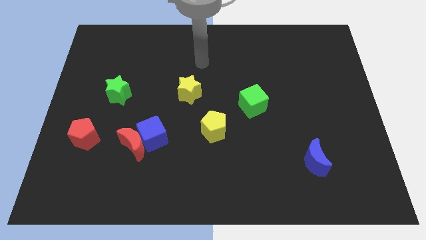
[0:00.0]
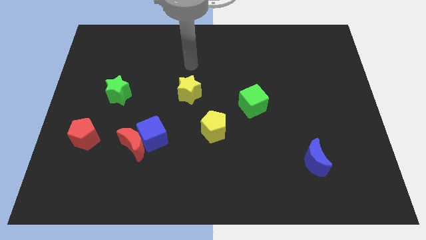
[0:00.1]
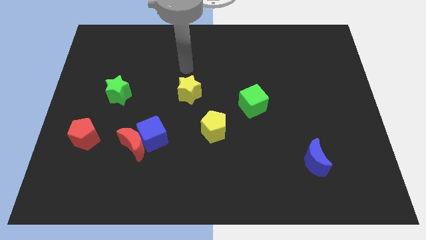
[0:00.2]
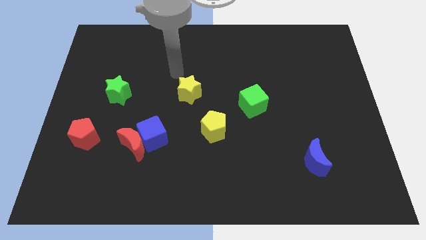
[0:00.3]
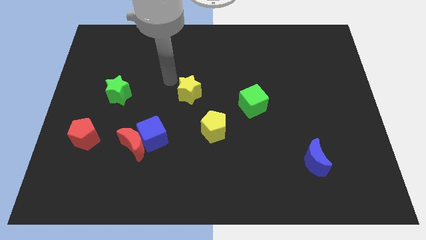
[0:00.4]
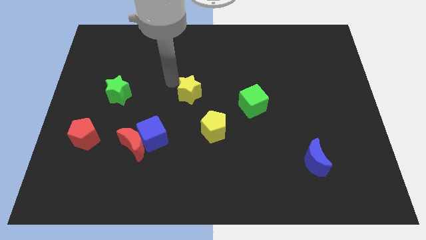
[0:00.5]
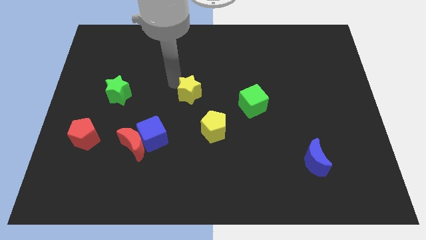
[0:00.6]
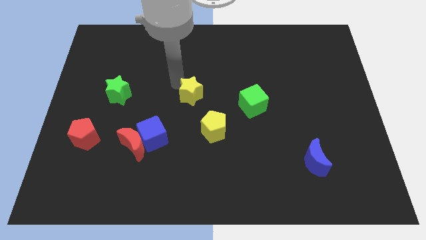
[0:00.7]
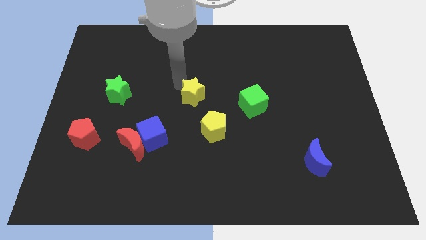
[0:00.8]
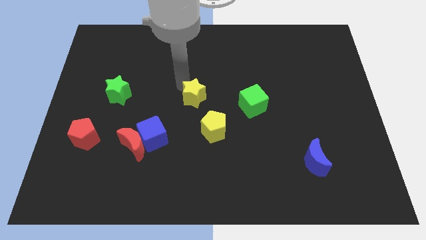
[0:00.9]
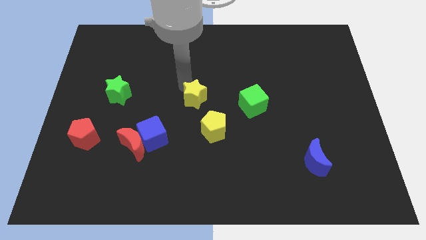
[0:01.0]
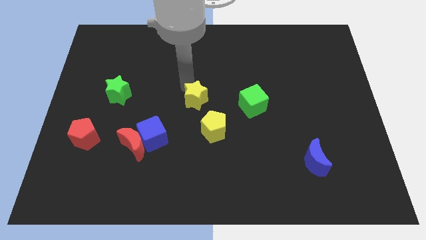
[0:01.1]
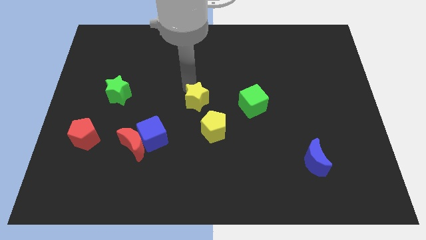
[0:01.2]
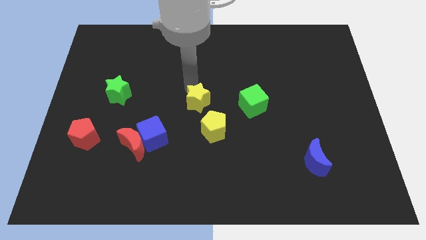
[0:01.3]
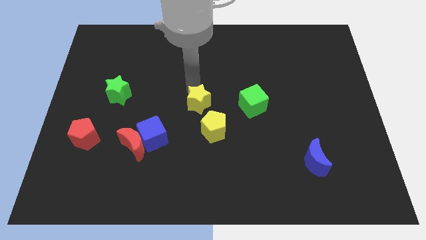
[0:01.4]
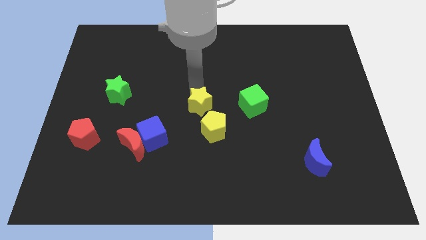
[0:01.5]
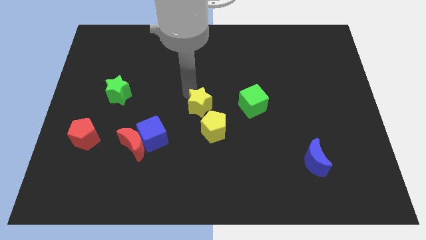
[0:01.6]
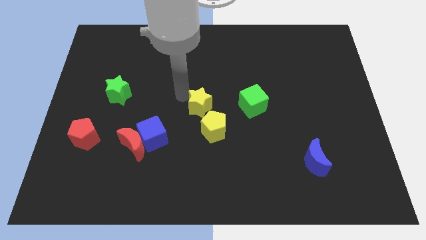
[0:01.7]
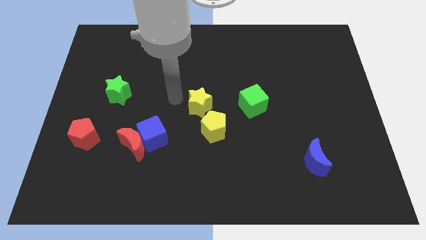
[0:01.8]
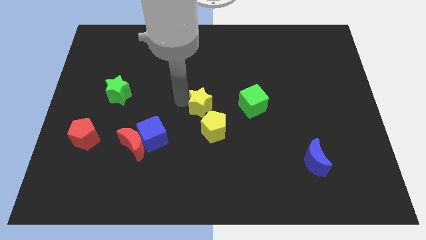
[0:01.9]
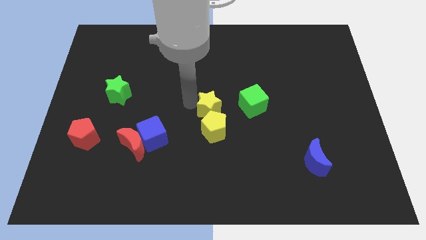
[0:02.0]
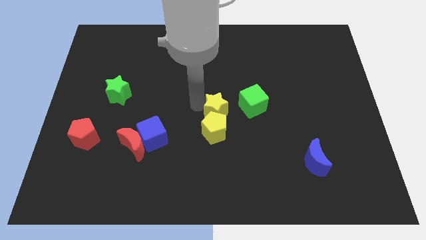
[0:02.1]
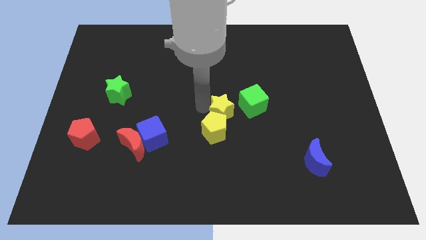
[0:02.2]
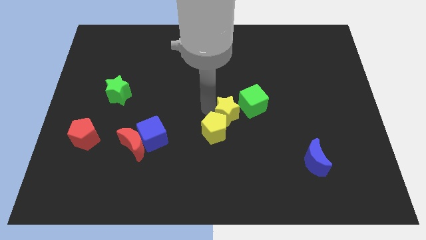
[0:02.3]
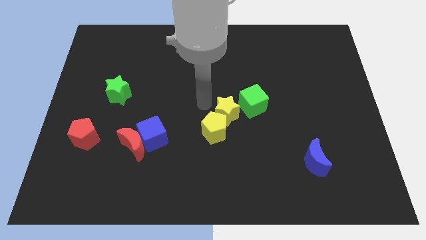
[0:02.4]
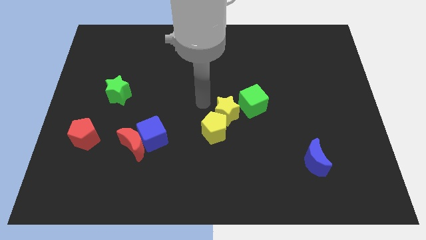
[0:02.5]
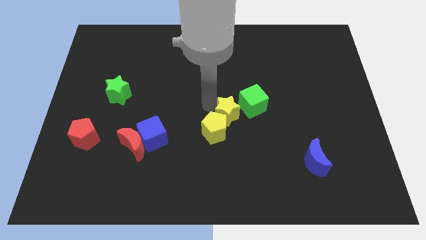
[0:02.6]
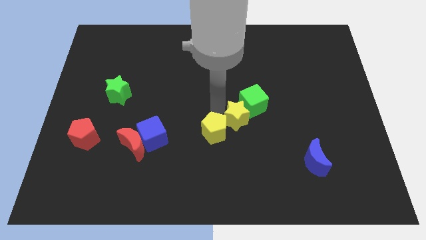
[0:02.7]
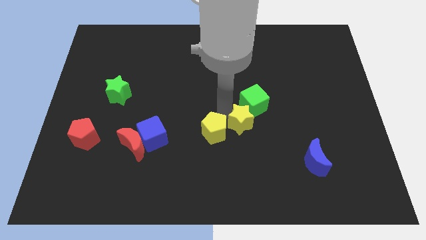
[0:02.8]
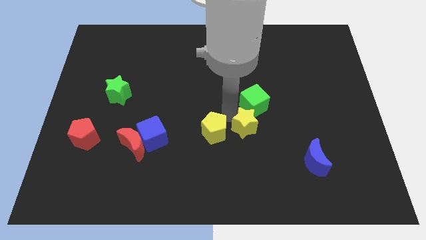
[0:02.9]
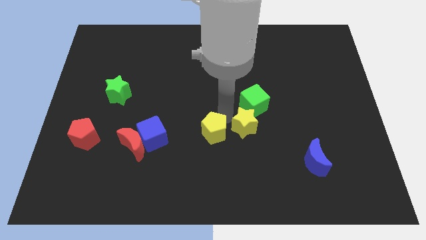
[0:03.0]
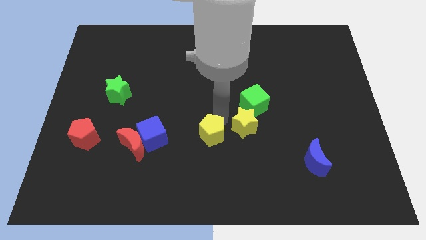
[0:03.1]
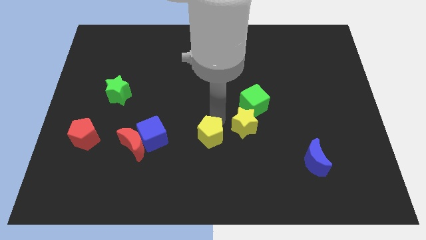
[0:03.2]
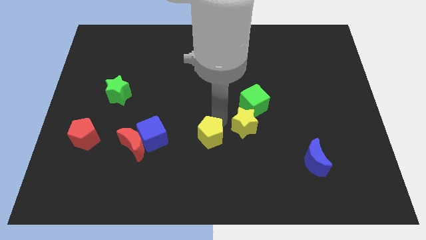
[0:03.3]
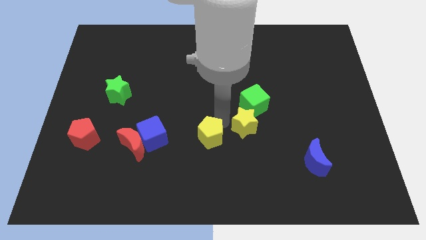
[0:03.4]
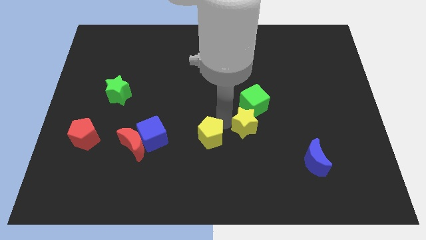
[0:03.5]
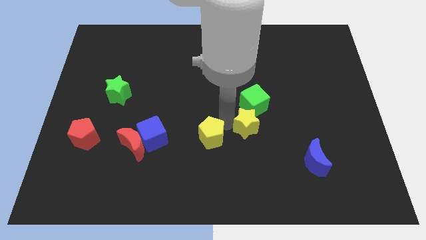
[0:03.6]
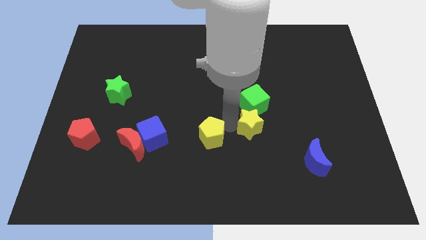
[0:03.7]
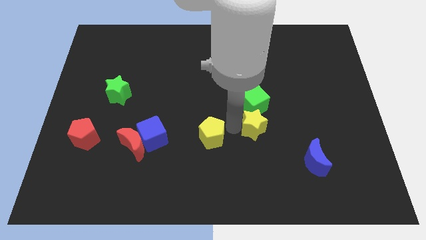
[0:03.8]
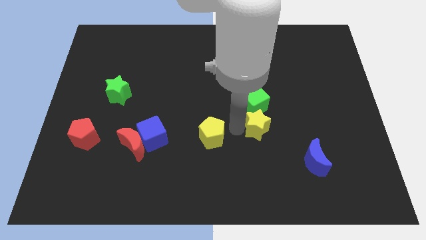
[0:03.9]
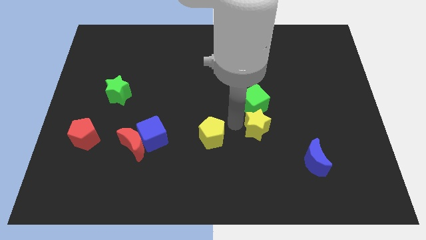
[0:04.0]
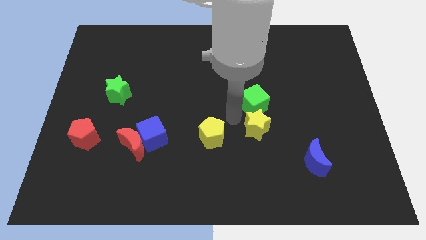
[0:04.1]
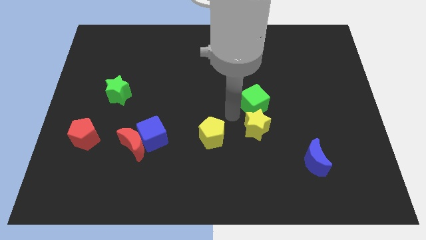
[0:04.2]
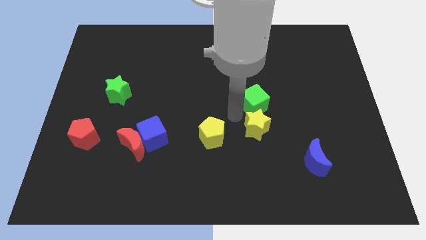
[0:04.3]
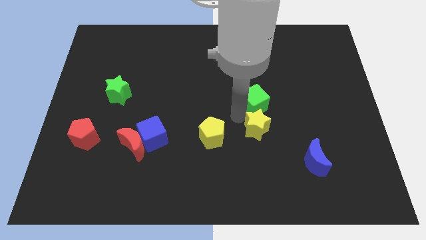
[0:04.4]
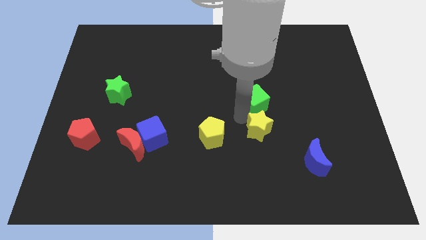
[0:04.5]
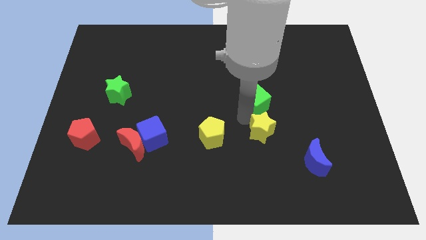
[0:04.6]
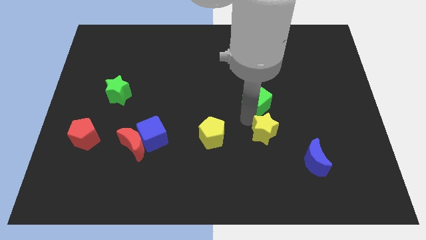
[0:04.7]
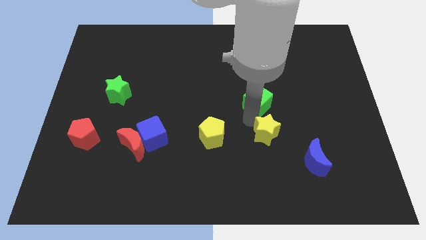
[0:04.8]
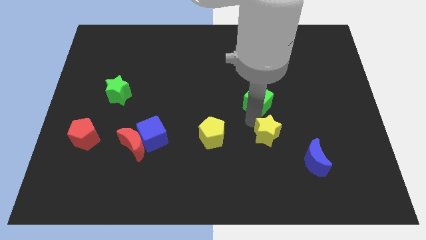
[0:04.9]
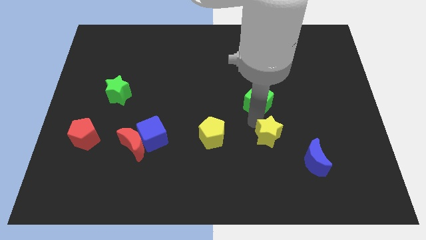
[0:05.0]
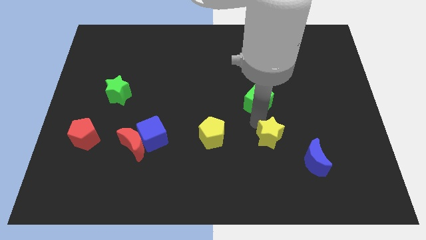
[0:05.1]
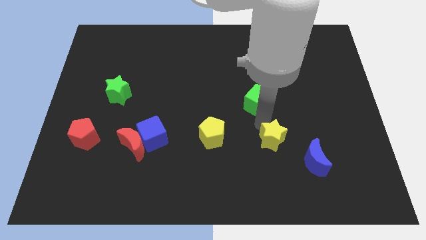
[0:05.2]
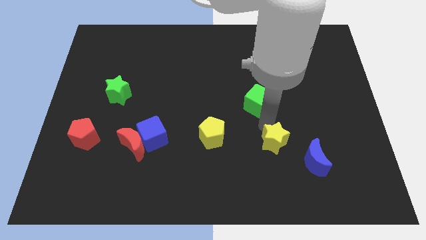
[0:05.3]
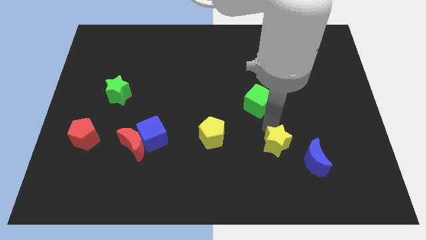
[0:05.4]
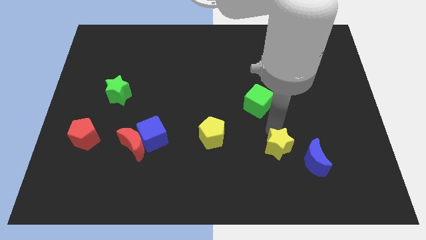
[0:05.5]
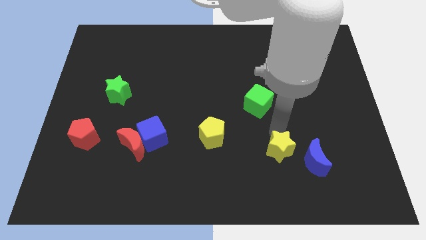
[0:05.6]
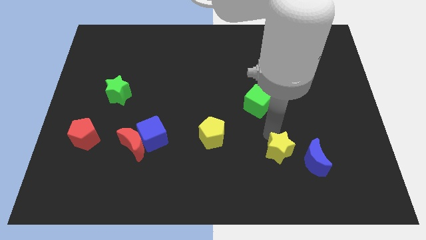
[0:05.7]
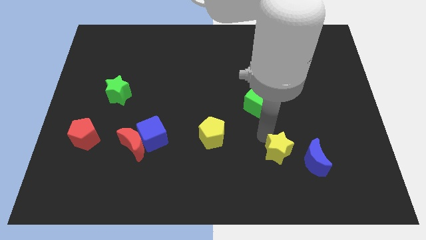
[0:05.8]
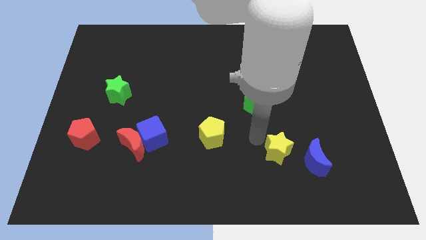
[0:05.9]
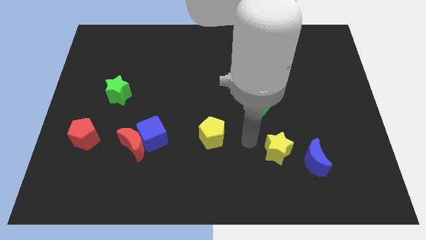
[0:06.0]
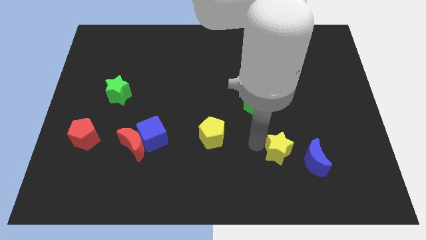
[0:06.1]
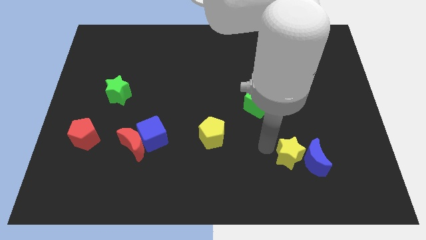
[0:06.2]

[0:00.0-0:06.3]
move the yellow star close to the blue moon
